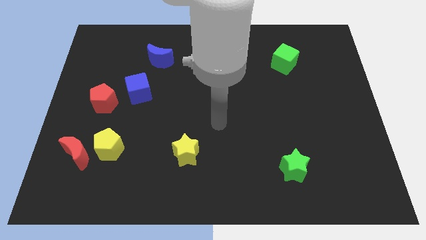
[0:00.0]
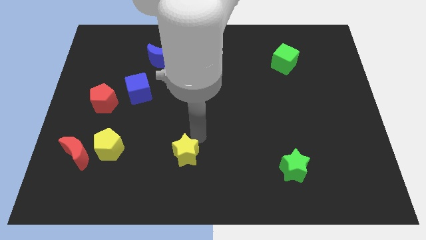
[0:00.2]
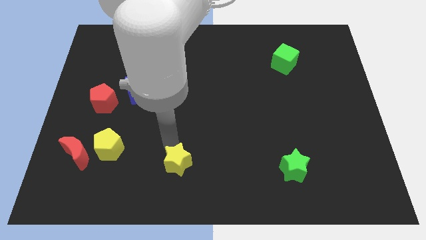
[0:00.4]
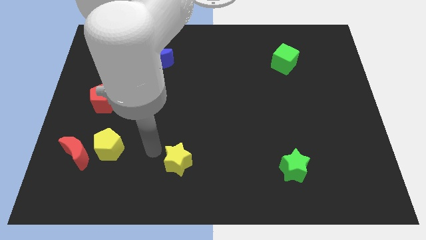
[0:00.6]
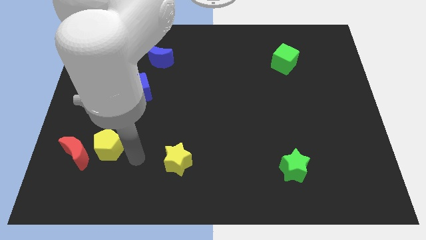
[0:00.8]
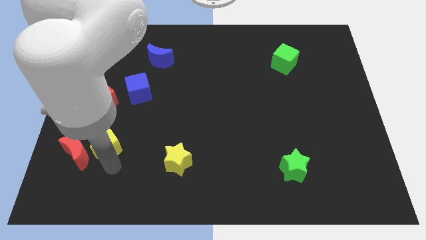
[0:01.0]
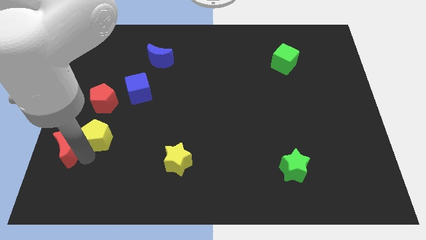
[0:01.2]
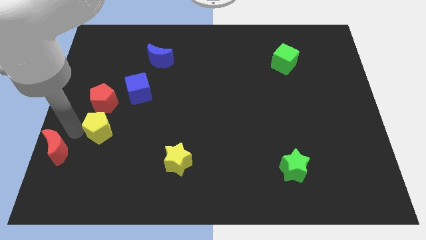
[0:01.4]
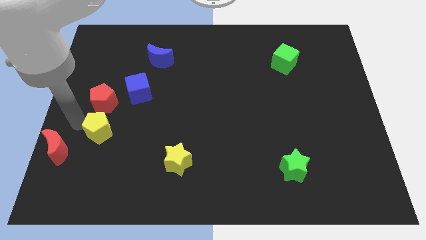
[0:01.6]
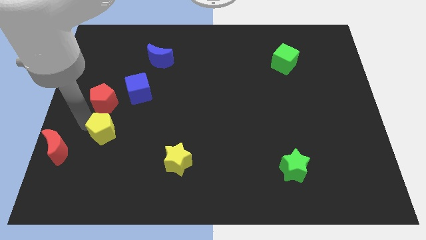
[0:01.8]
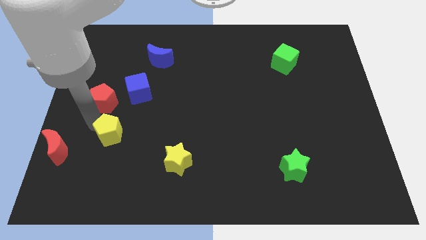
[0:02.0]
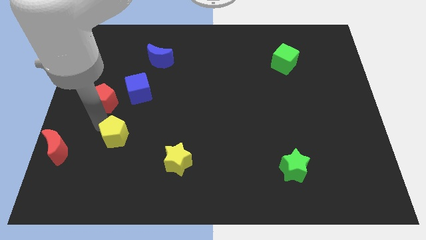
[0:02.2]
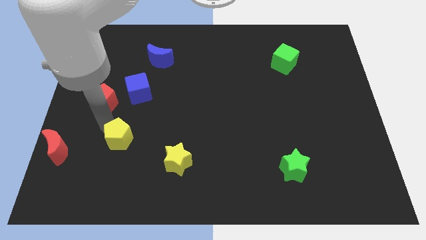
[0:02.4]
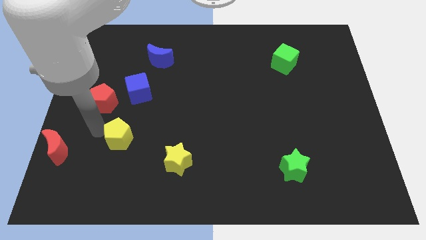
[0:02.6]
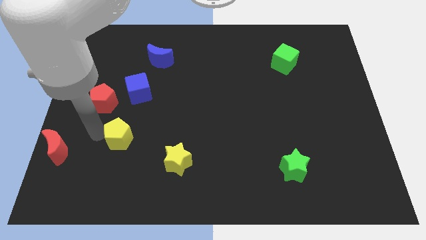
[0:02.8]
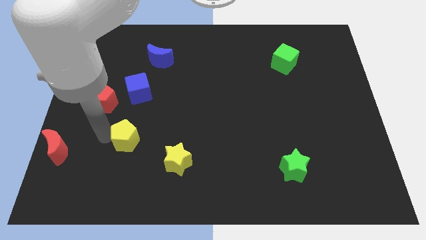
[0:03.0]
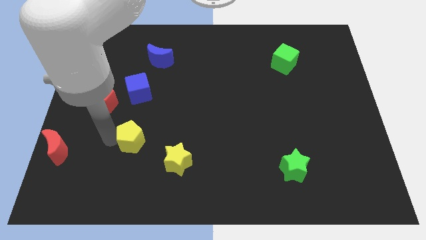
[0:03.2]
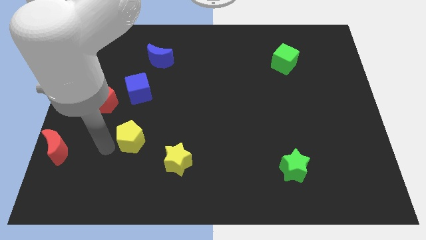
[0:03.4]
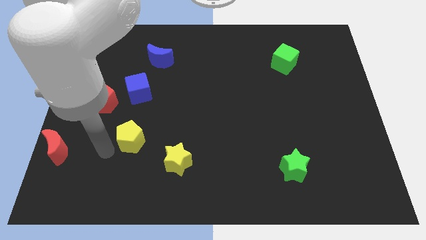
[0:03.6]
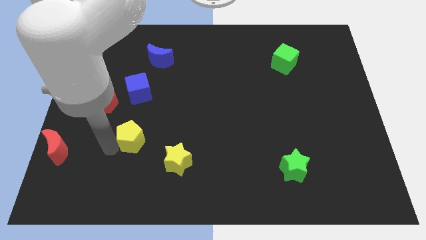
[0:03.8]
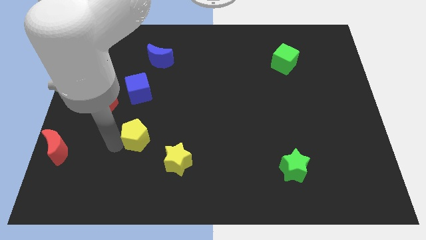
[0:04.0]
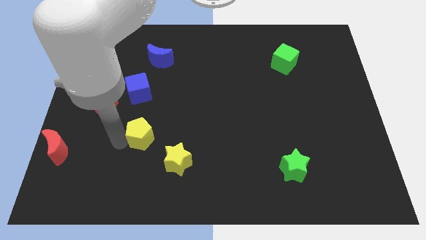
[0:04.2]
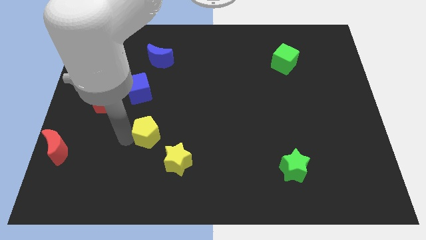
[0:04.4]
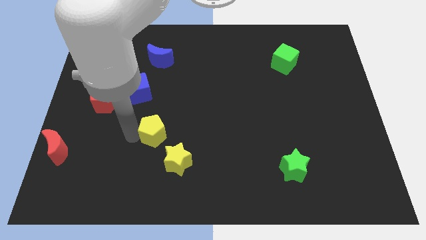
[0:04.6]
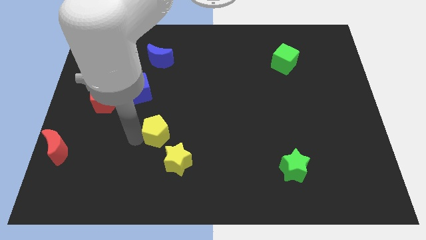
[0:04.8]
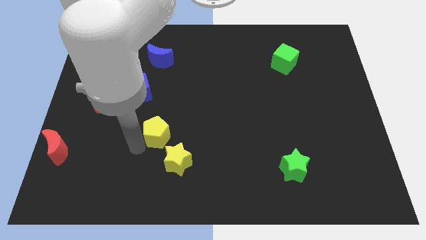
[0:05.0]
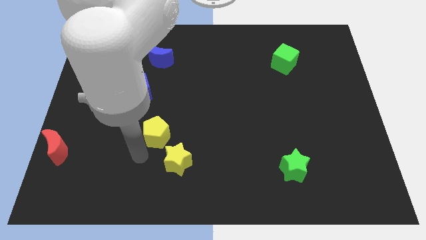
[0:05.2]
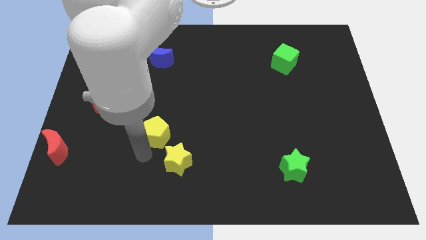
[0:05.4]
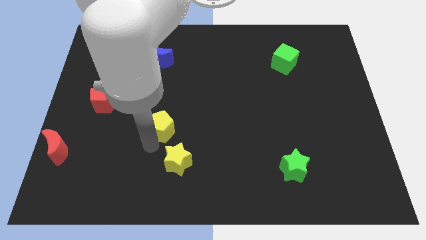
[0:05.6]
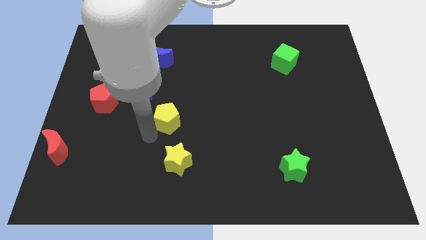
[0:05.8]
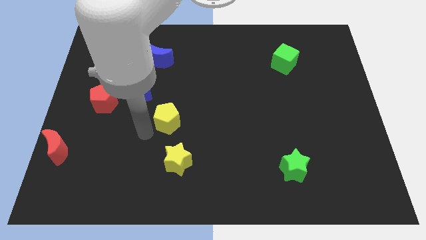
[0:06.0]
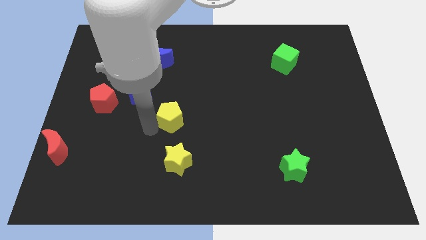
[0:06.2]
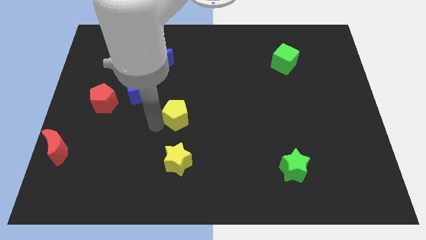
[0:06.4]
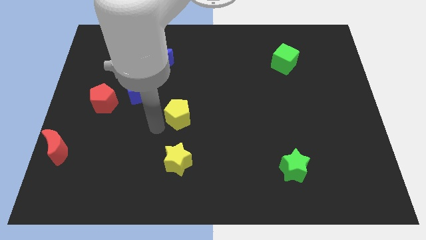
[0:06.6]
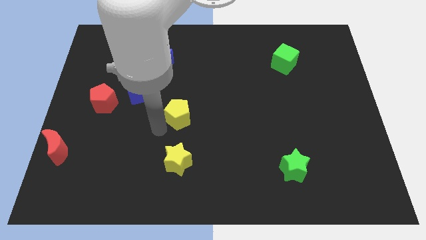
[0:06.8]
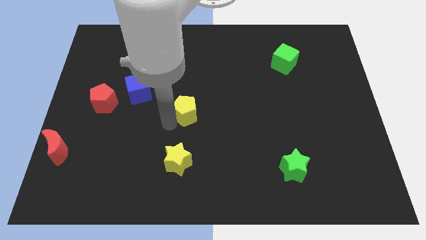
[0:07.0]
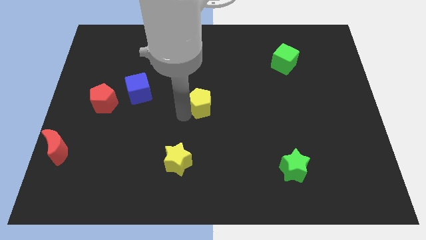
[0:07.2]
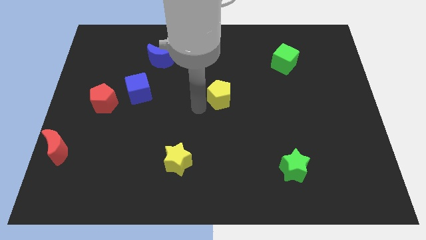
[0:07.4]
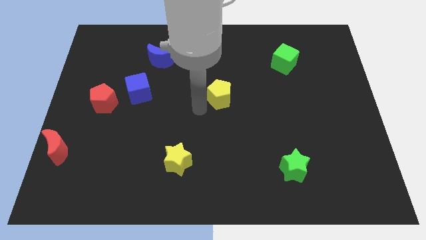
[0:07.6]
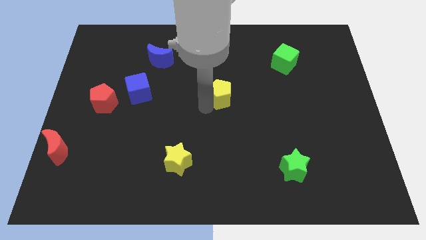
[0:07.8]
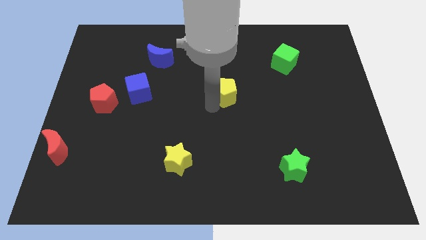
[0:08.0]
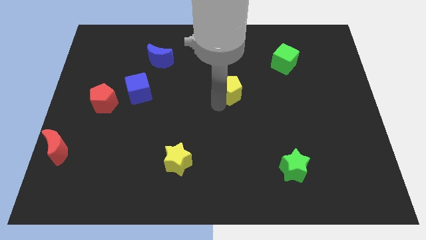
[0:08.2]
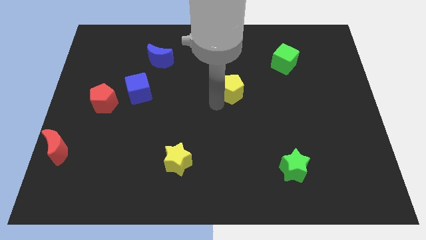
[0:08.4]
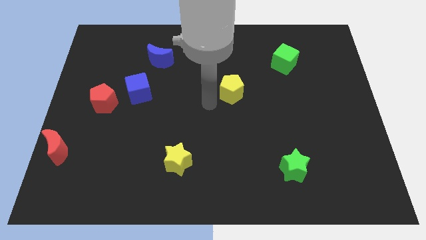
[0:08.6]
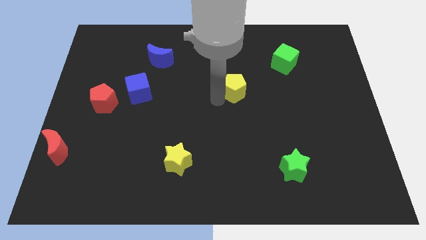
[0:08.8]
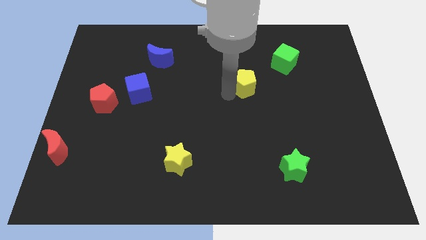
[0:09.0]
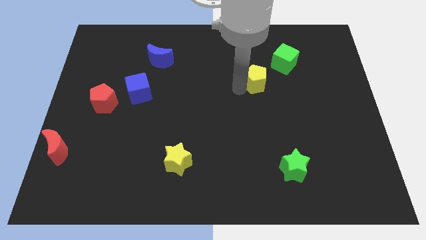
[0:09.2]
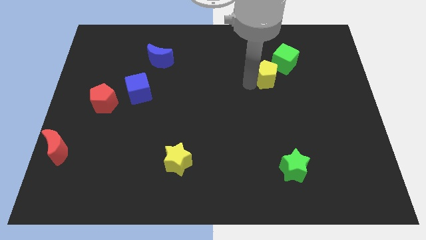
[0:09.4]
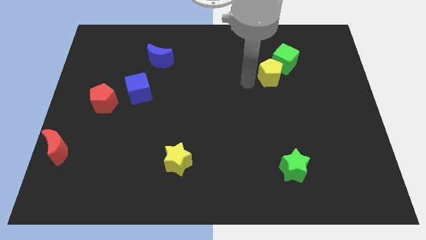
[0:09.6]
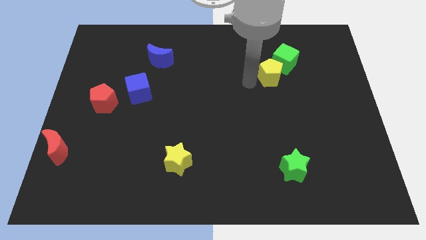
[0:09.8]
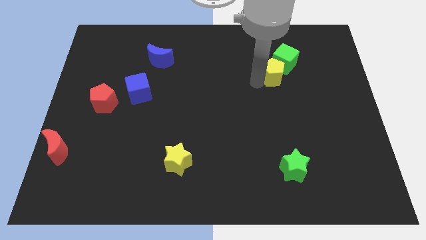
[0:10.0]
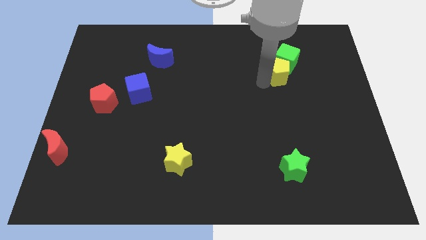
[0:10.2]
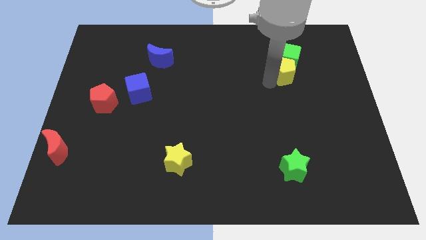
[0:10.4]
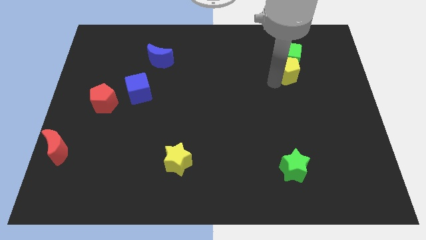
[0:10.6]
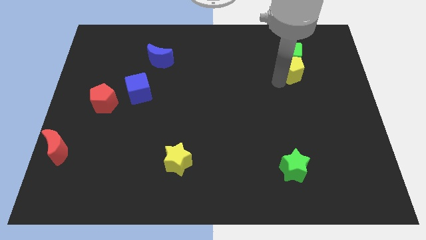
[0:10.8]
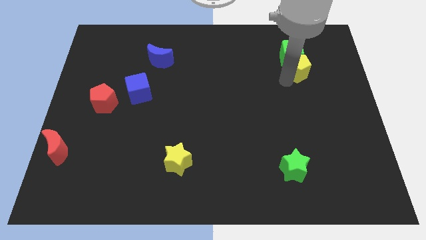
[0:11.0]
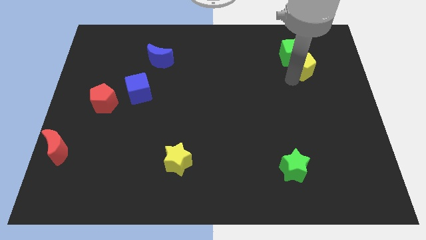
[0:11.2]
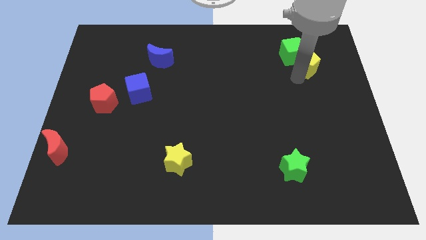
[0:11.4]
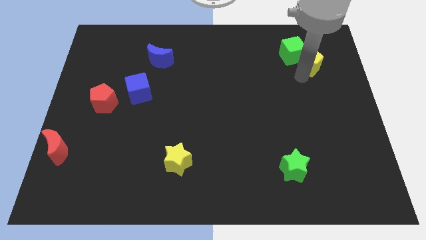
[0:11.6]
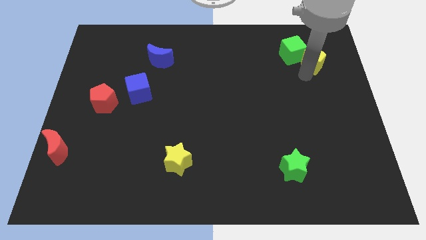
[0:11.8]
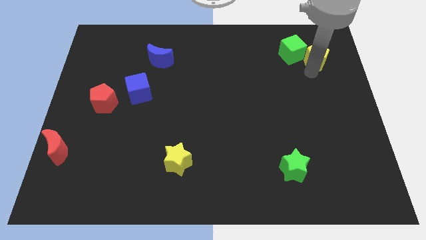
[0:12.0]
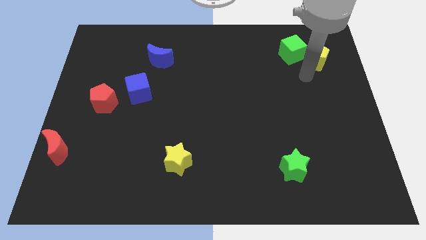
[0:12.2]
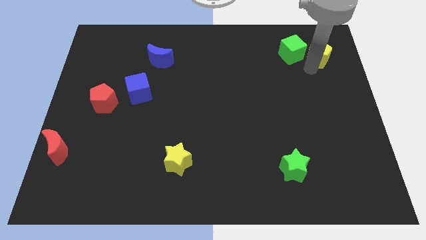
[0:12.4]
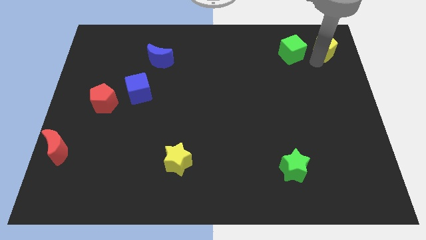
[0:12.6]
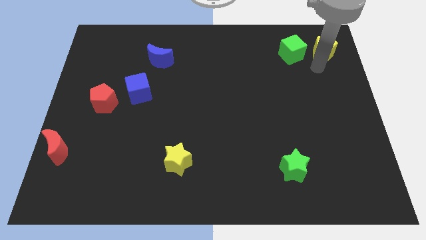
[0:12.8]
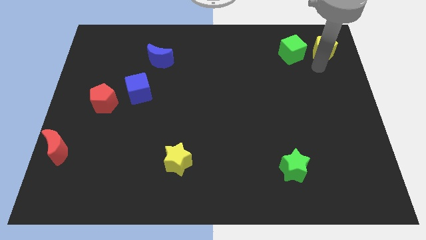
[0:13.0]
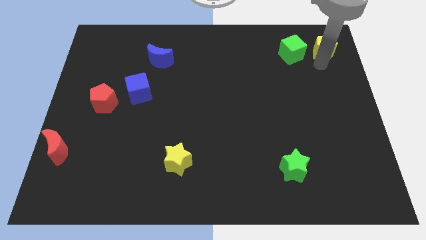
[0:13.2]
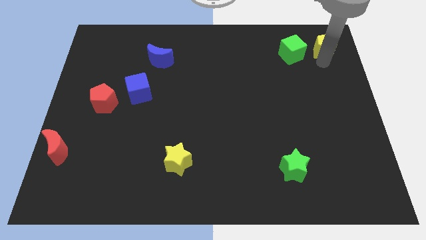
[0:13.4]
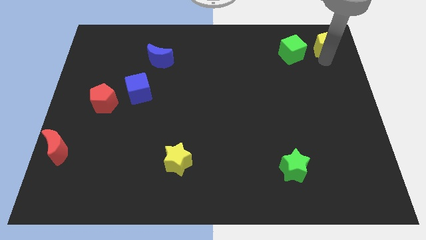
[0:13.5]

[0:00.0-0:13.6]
put the yellow pentagon to the top right
